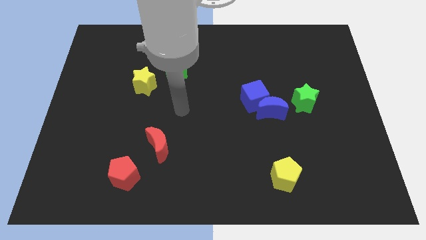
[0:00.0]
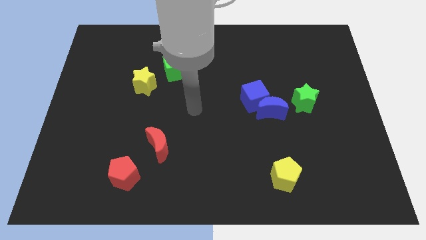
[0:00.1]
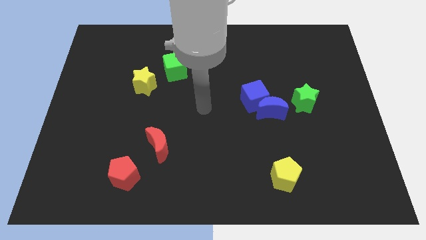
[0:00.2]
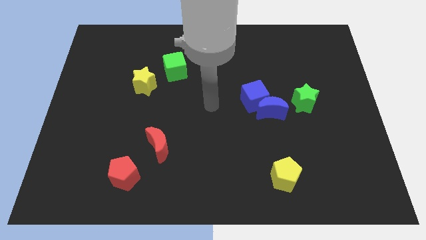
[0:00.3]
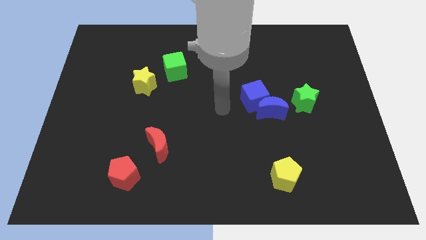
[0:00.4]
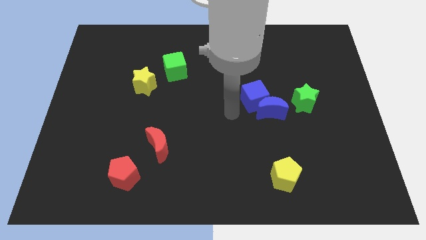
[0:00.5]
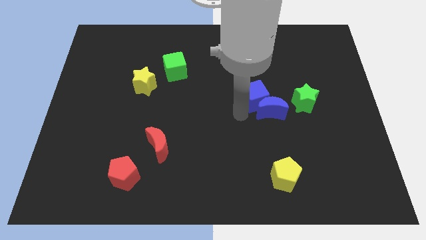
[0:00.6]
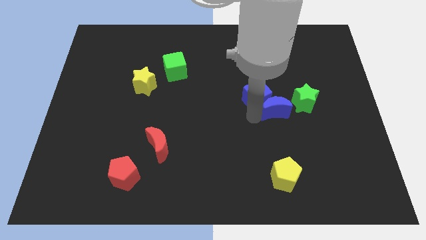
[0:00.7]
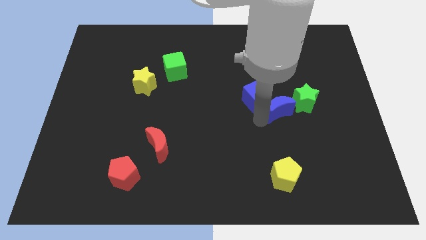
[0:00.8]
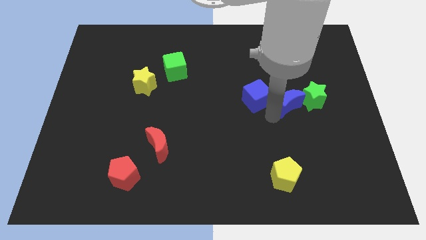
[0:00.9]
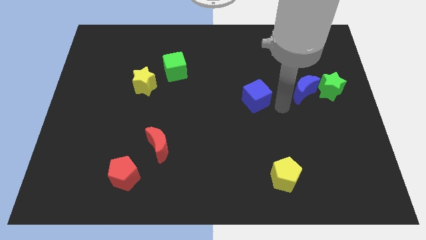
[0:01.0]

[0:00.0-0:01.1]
move the blue cube away from the blue moon

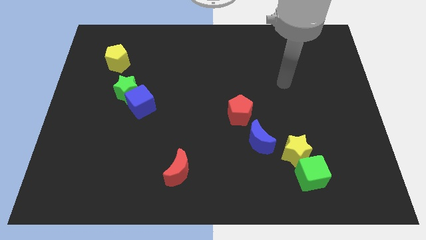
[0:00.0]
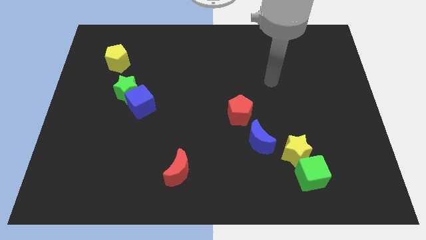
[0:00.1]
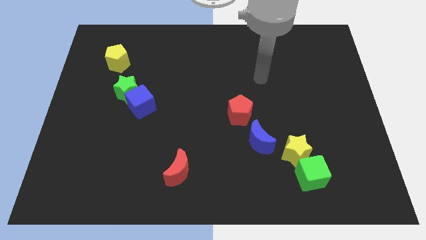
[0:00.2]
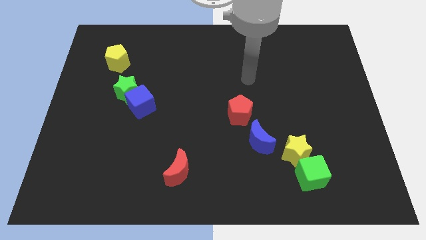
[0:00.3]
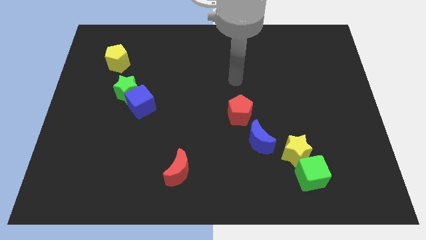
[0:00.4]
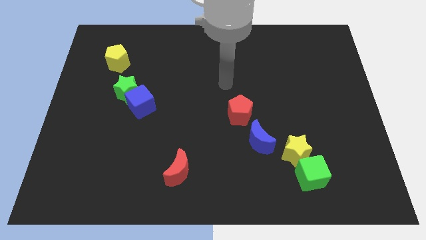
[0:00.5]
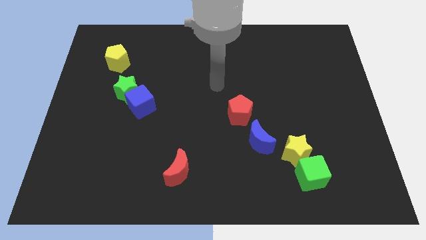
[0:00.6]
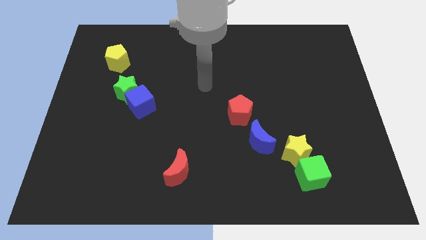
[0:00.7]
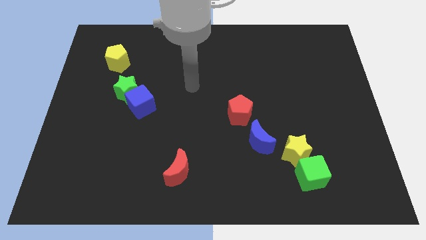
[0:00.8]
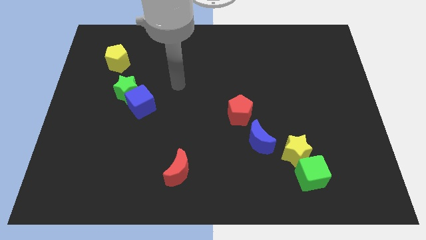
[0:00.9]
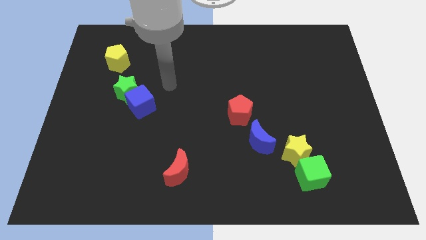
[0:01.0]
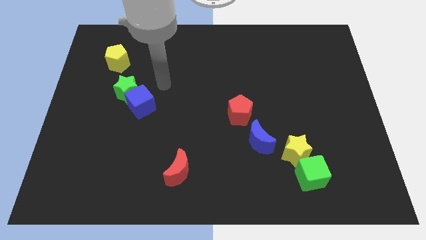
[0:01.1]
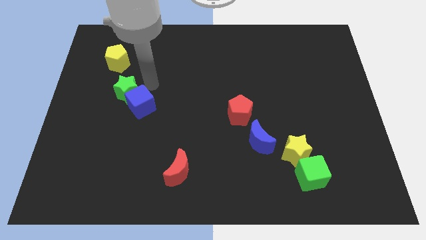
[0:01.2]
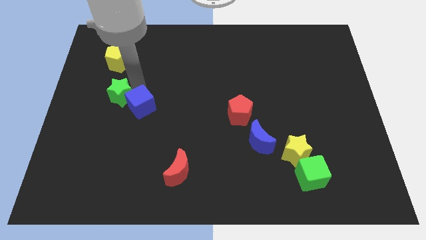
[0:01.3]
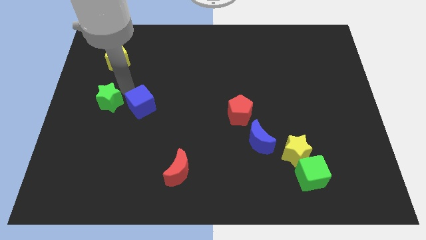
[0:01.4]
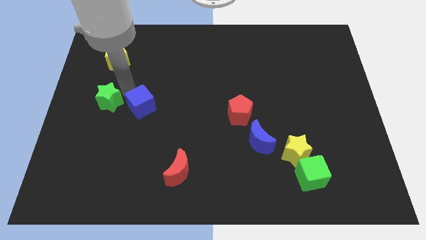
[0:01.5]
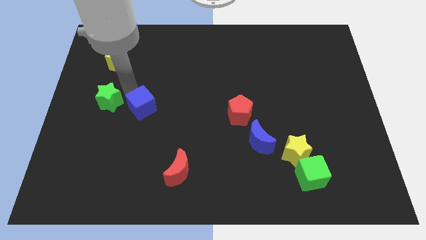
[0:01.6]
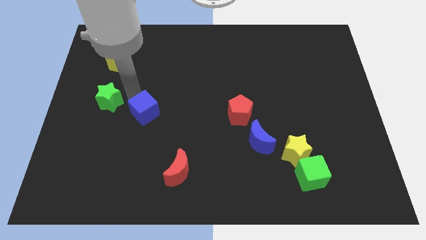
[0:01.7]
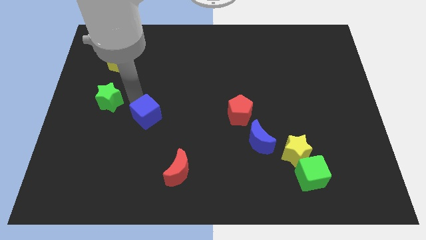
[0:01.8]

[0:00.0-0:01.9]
pull the blue cube apart from the green star

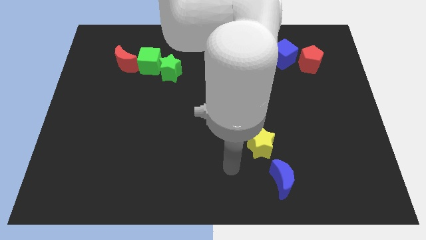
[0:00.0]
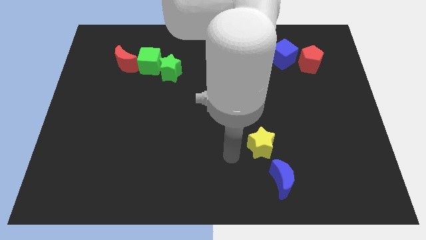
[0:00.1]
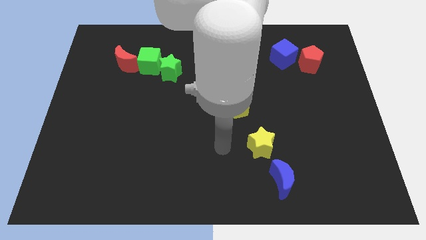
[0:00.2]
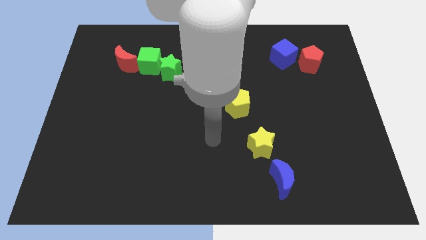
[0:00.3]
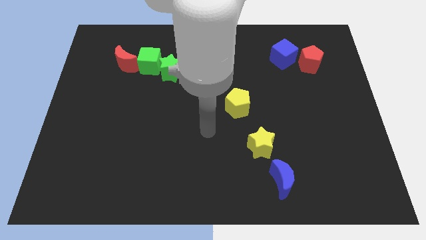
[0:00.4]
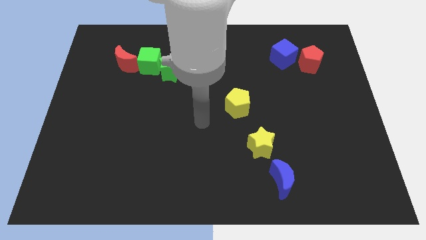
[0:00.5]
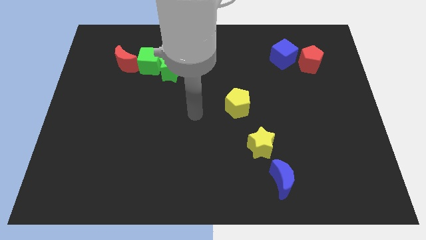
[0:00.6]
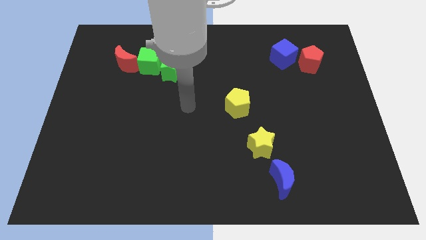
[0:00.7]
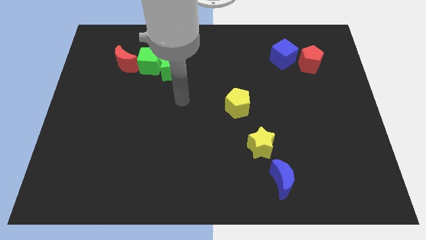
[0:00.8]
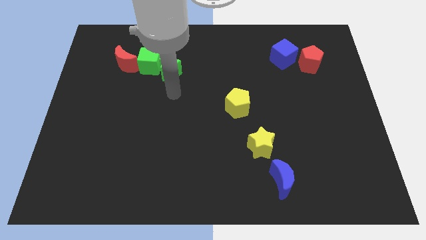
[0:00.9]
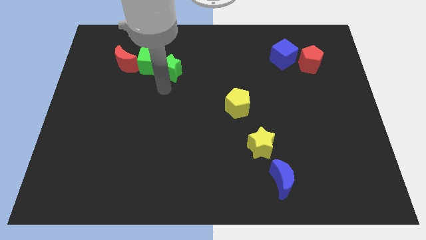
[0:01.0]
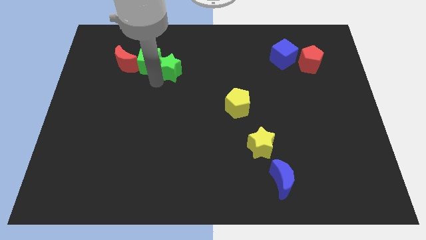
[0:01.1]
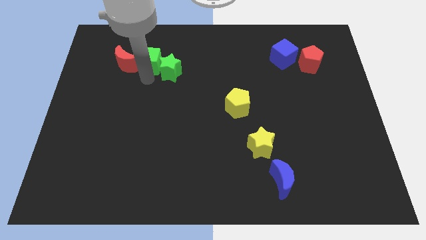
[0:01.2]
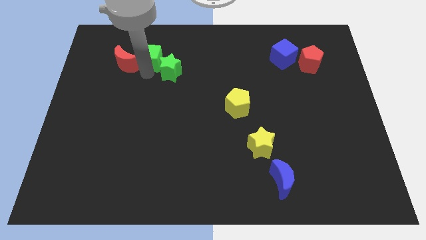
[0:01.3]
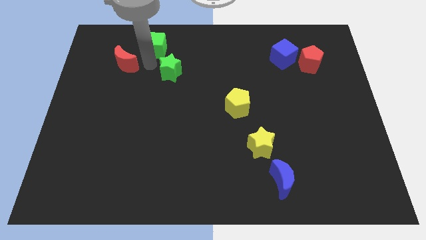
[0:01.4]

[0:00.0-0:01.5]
move the green star away from the green cube

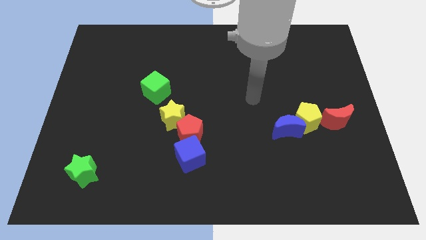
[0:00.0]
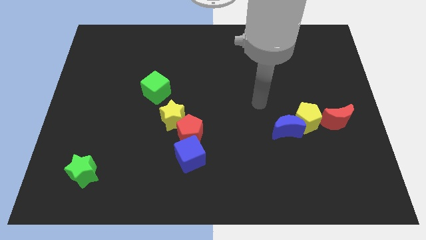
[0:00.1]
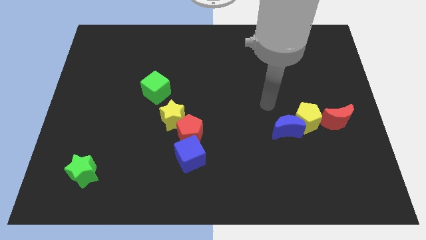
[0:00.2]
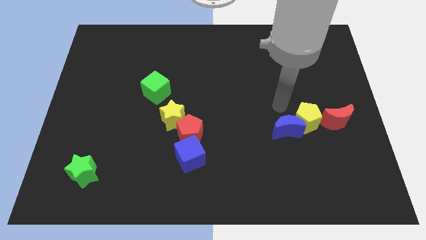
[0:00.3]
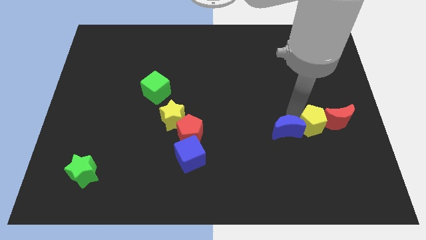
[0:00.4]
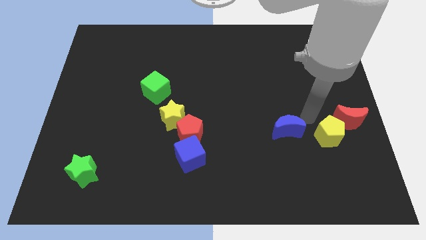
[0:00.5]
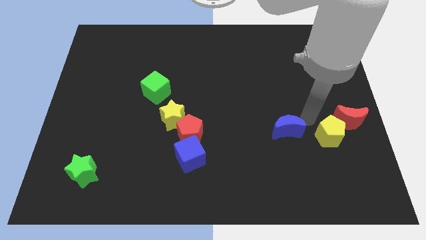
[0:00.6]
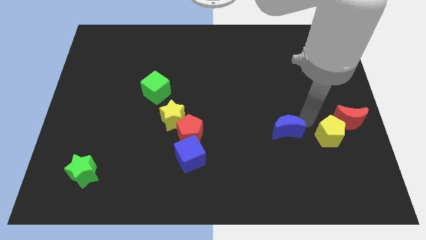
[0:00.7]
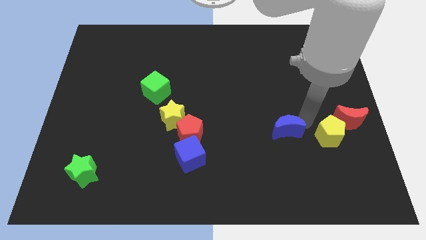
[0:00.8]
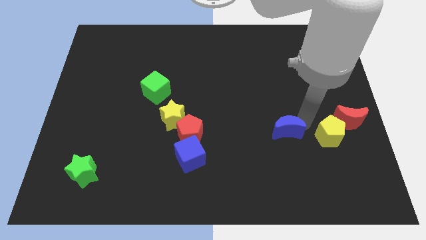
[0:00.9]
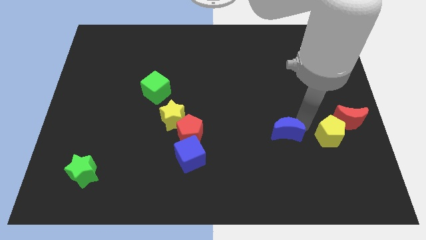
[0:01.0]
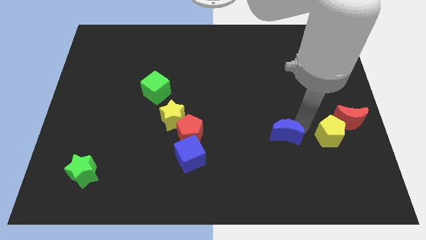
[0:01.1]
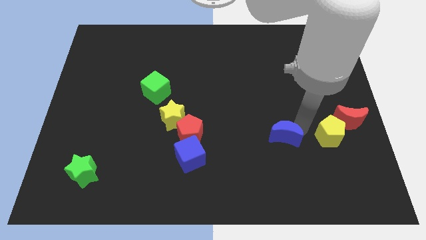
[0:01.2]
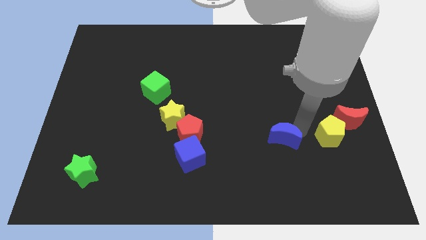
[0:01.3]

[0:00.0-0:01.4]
separate the blue moon from the yellow pentagon

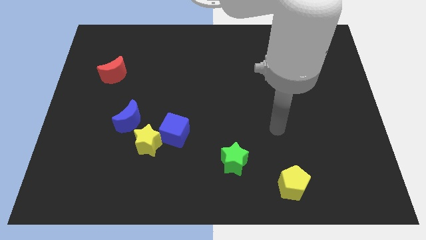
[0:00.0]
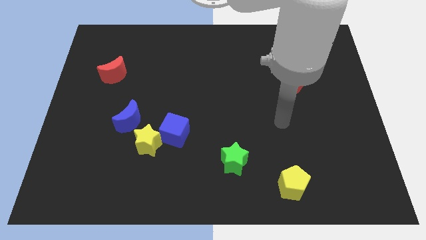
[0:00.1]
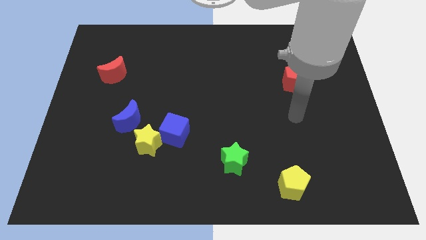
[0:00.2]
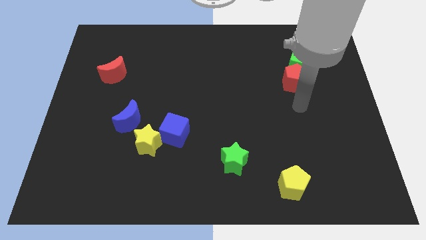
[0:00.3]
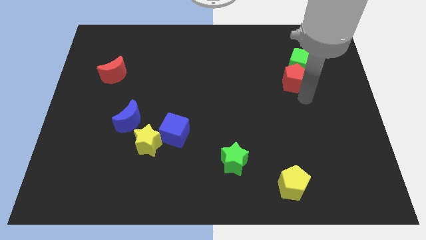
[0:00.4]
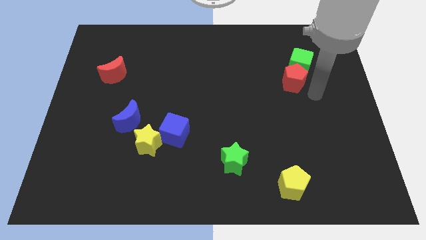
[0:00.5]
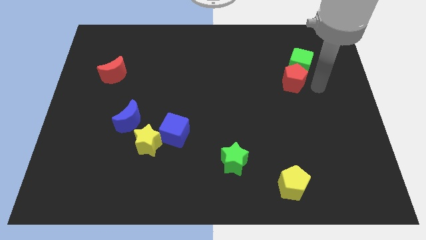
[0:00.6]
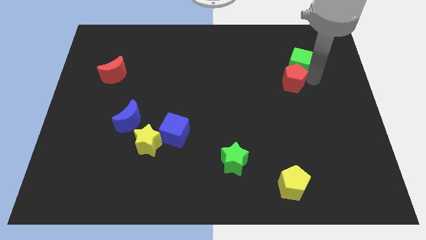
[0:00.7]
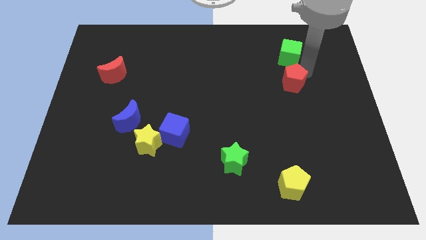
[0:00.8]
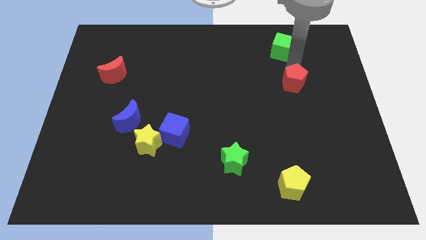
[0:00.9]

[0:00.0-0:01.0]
move the red pentagon away from the green cube

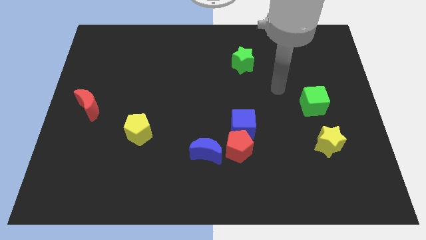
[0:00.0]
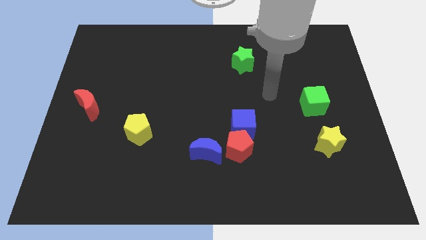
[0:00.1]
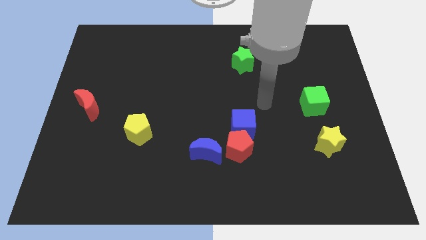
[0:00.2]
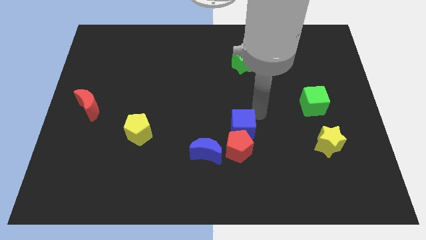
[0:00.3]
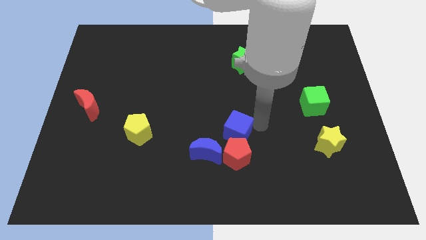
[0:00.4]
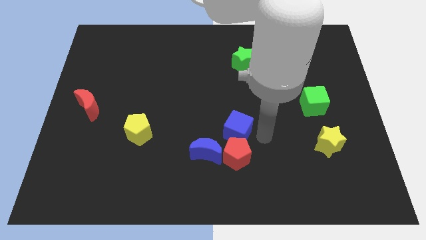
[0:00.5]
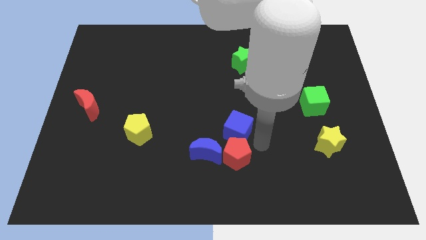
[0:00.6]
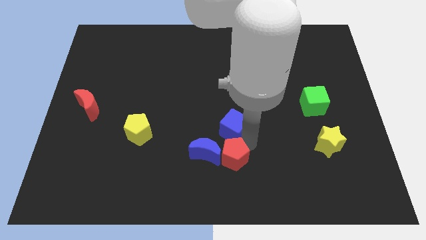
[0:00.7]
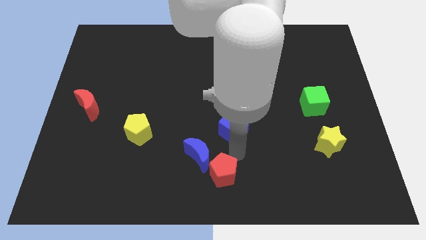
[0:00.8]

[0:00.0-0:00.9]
move the blue cube away from the red pentagon

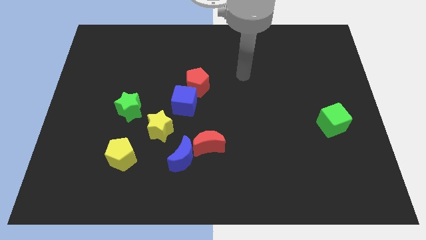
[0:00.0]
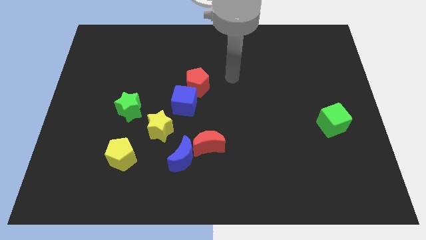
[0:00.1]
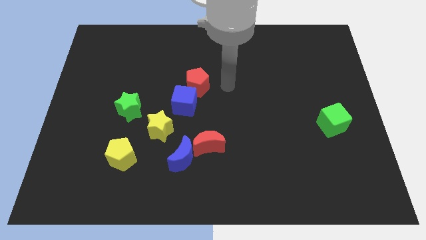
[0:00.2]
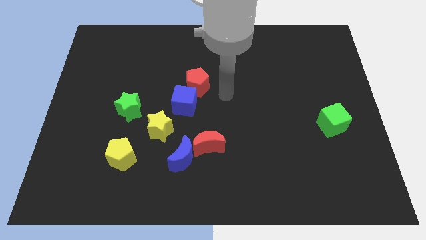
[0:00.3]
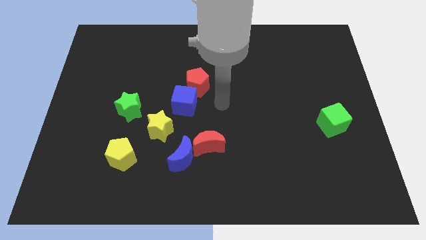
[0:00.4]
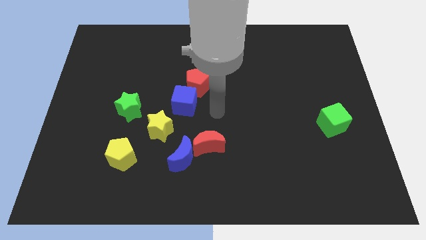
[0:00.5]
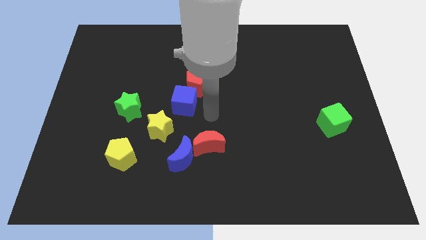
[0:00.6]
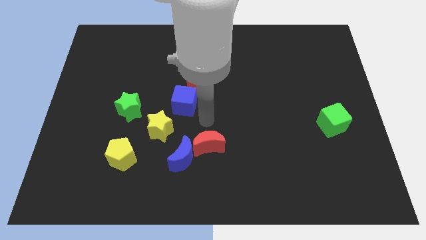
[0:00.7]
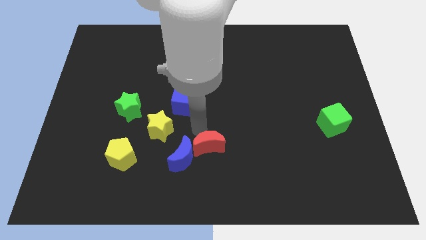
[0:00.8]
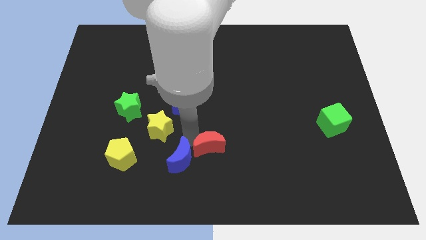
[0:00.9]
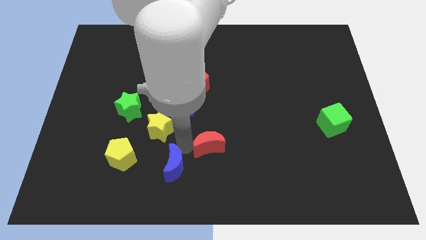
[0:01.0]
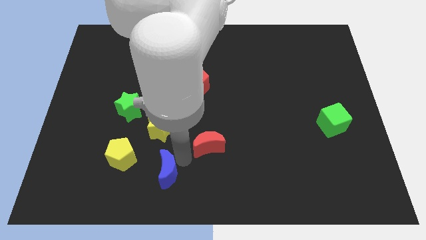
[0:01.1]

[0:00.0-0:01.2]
pull the red moon apart from the blue moon

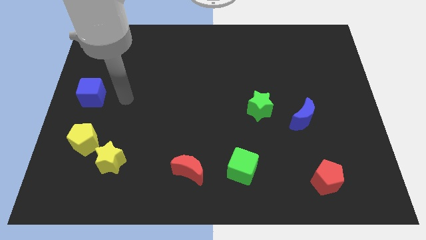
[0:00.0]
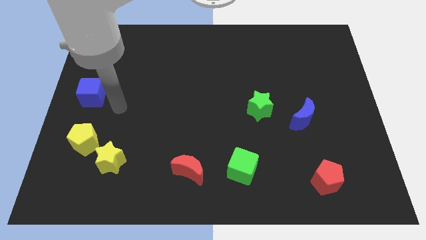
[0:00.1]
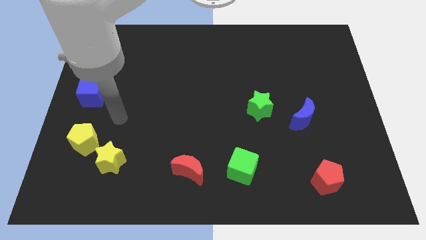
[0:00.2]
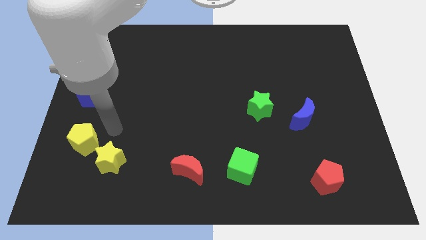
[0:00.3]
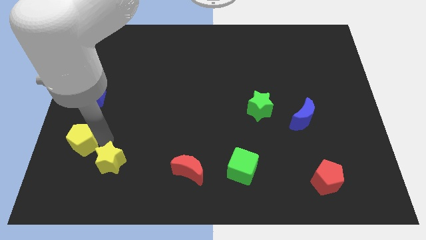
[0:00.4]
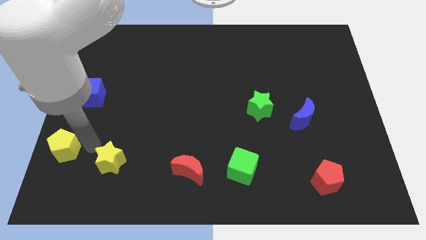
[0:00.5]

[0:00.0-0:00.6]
move the yellow star away from the yellow pentagon
